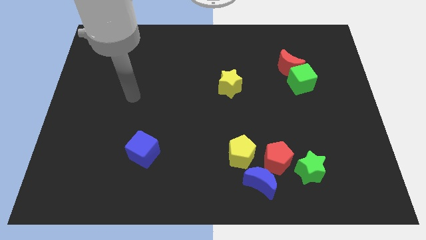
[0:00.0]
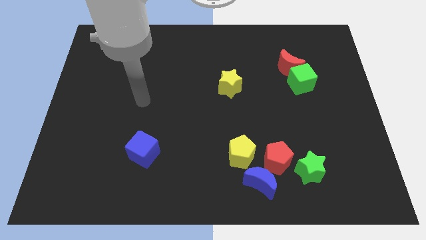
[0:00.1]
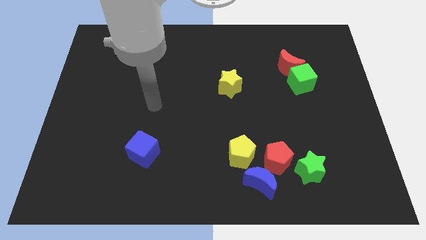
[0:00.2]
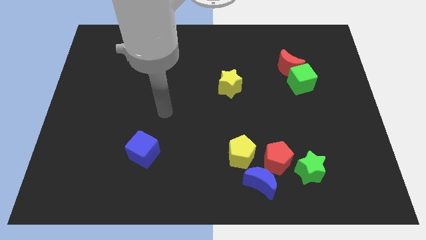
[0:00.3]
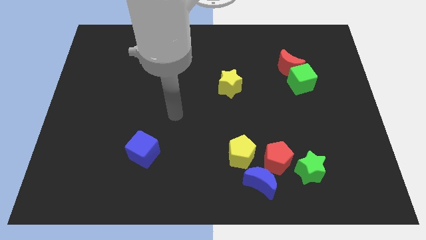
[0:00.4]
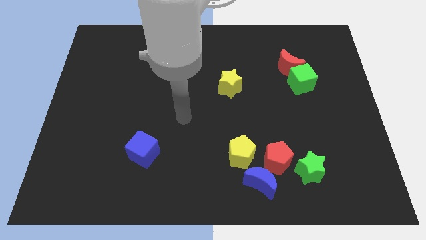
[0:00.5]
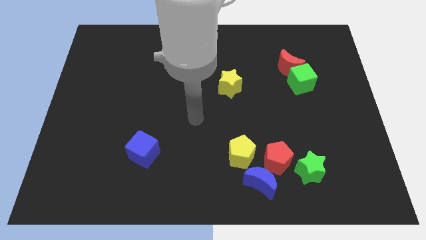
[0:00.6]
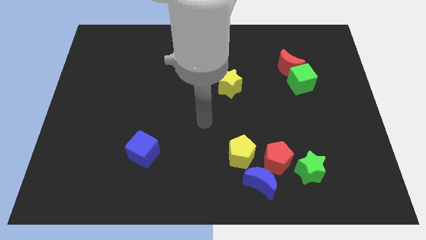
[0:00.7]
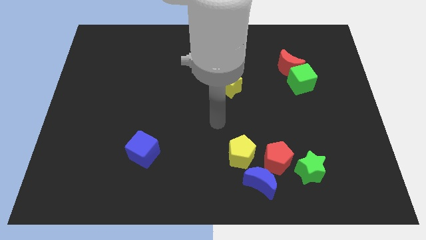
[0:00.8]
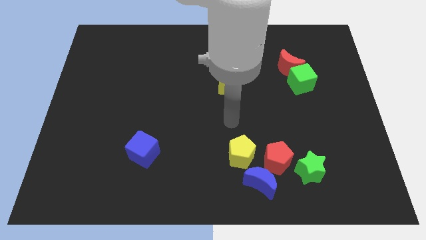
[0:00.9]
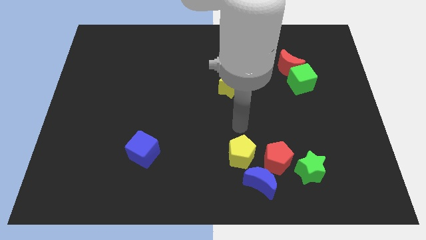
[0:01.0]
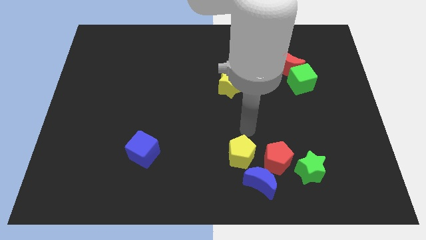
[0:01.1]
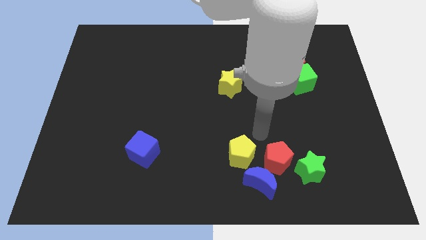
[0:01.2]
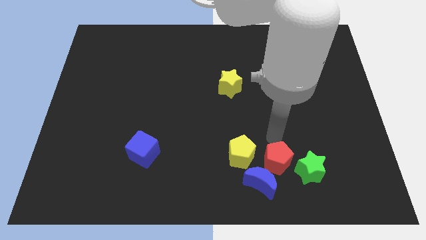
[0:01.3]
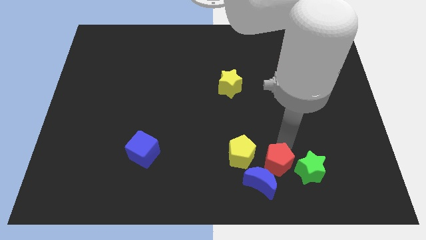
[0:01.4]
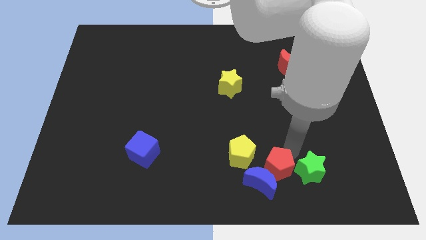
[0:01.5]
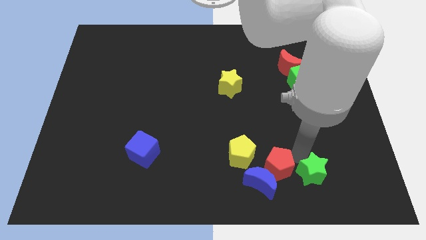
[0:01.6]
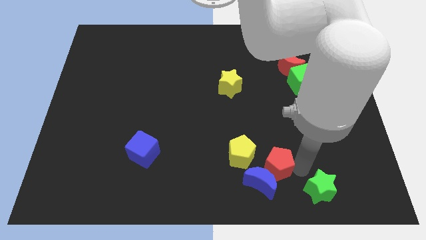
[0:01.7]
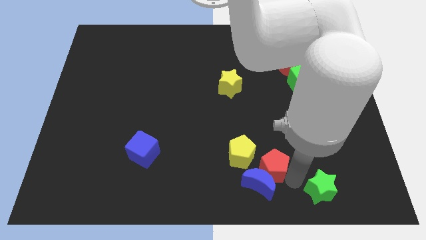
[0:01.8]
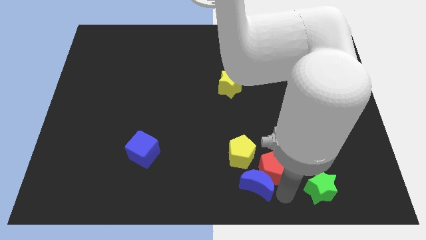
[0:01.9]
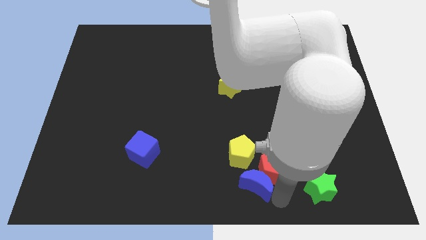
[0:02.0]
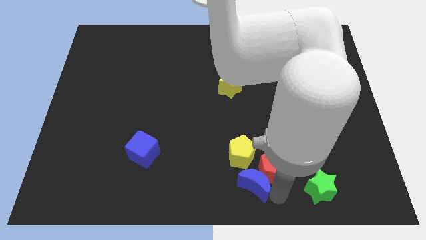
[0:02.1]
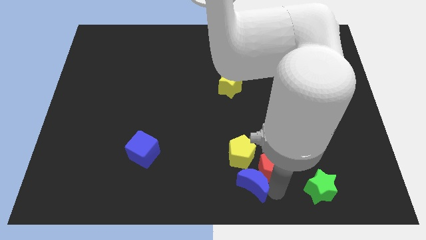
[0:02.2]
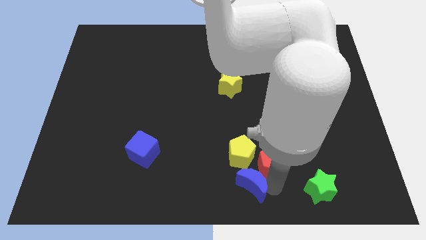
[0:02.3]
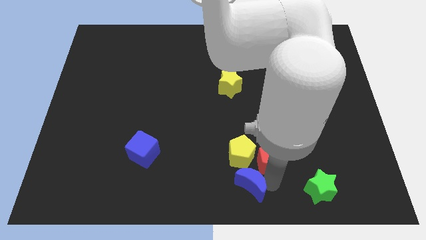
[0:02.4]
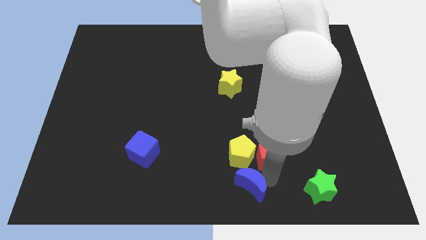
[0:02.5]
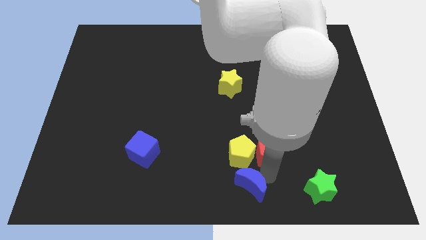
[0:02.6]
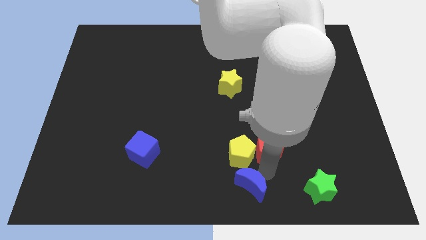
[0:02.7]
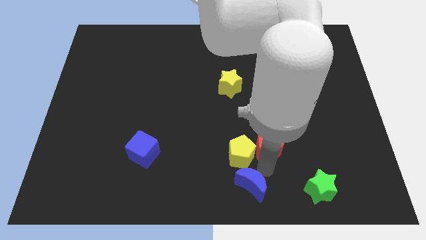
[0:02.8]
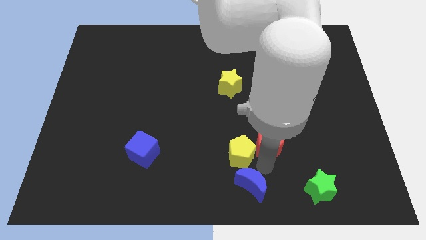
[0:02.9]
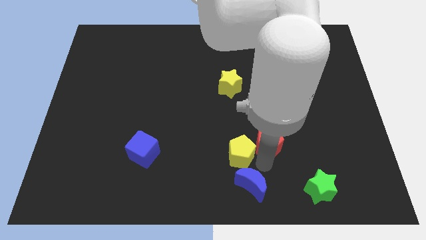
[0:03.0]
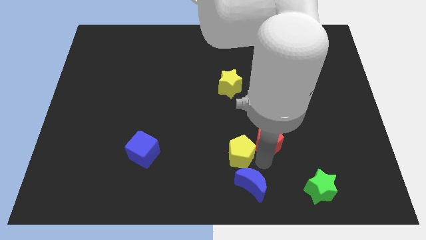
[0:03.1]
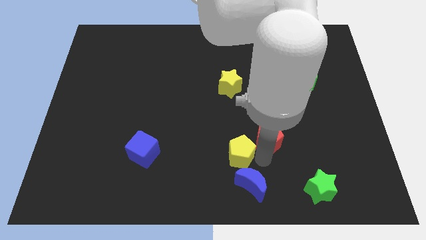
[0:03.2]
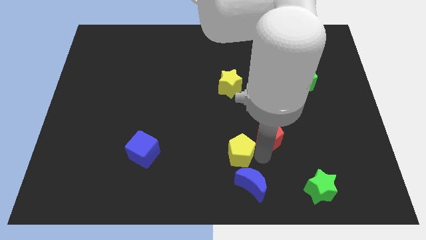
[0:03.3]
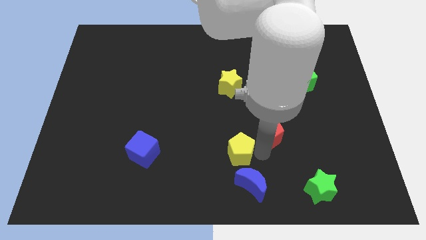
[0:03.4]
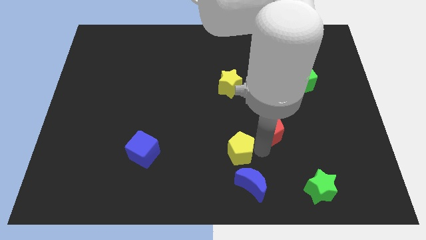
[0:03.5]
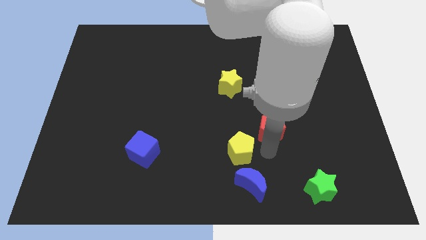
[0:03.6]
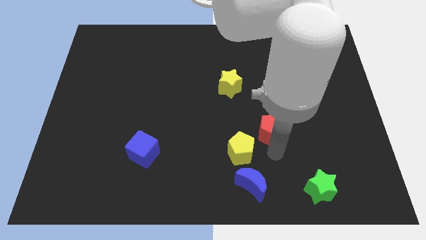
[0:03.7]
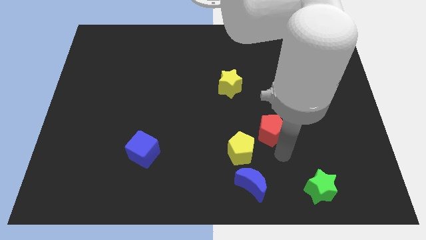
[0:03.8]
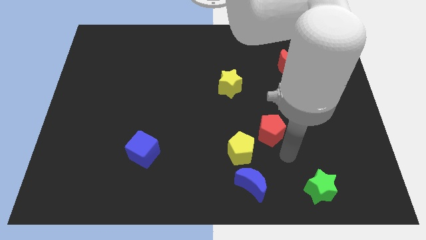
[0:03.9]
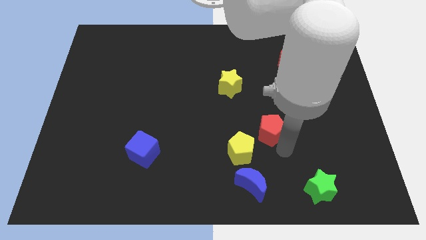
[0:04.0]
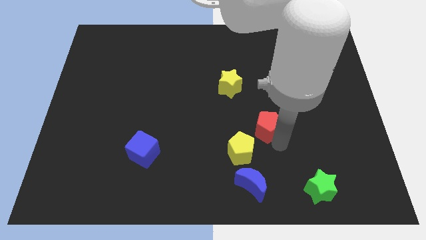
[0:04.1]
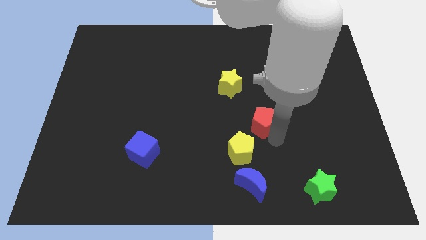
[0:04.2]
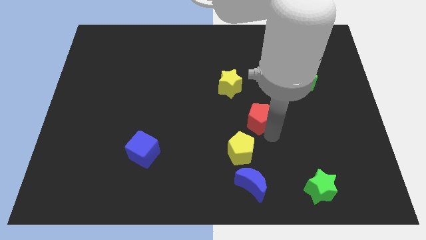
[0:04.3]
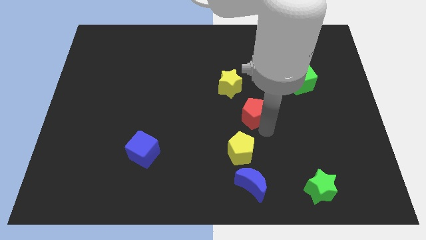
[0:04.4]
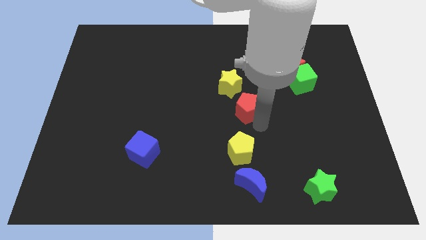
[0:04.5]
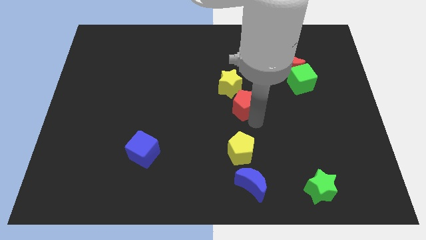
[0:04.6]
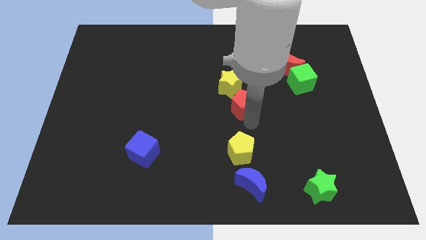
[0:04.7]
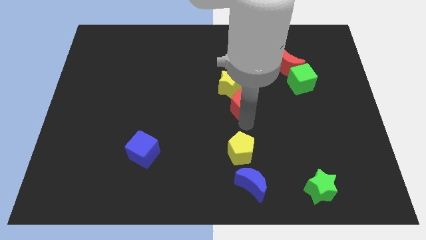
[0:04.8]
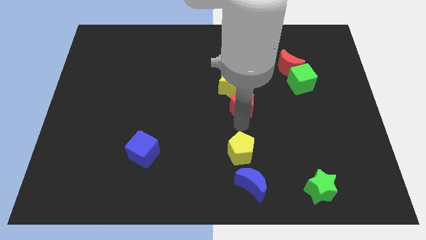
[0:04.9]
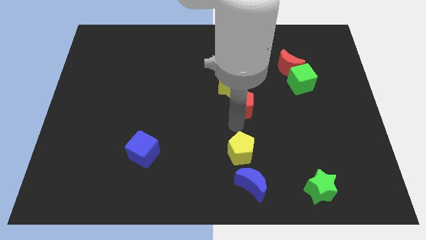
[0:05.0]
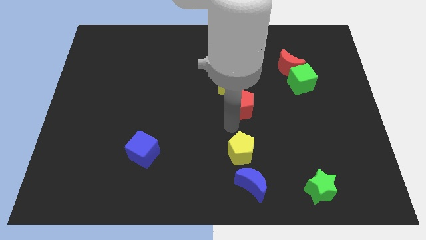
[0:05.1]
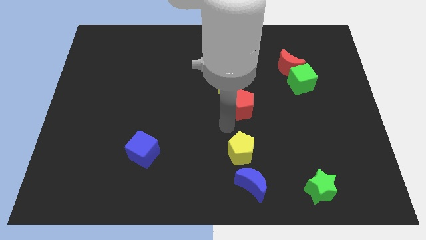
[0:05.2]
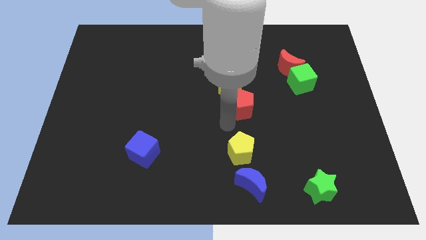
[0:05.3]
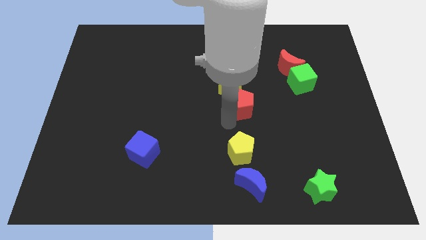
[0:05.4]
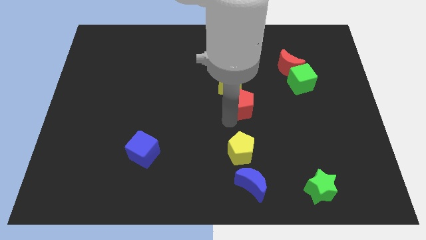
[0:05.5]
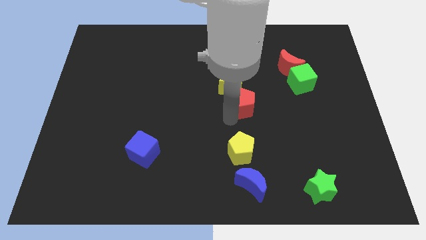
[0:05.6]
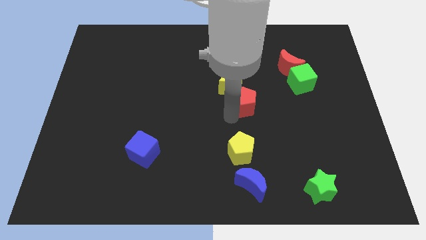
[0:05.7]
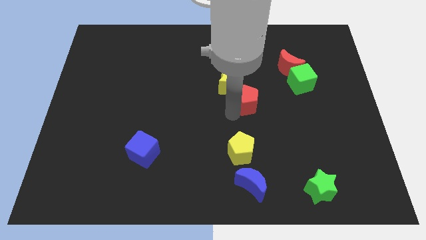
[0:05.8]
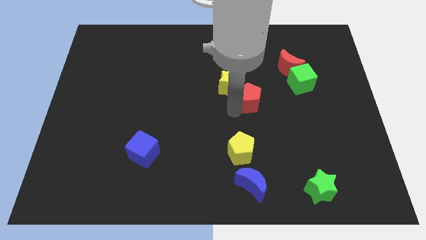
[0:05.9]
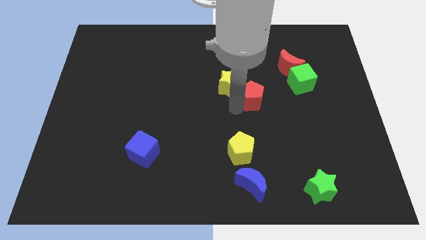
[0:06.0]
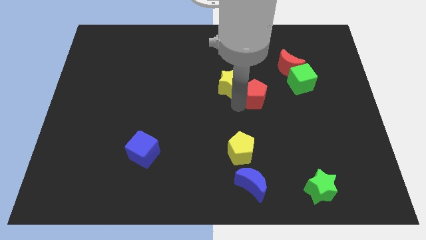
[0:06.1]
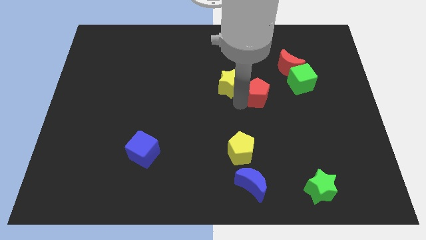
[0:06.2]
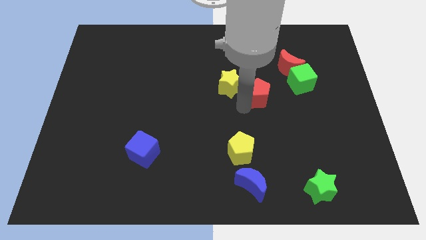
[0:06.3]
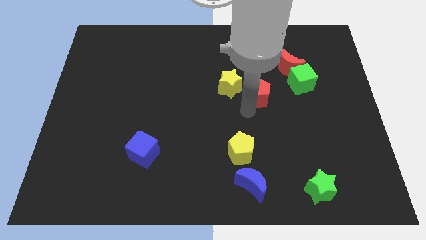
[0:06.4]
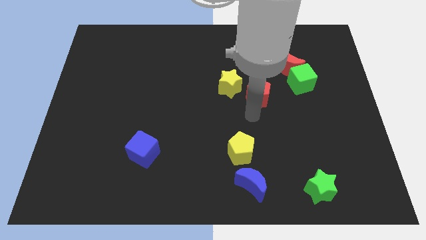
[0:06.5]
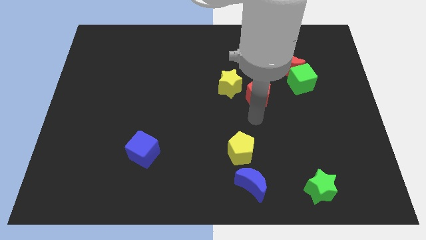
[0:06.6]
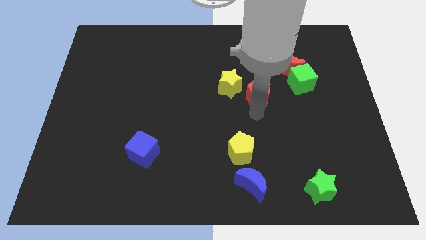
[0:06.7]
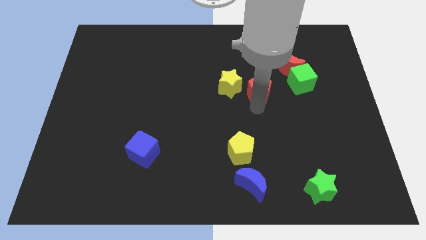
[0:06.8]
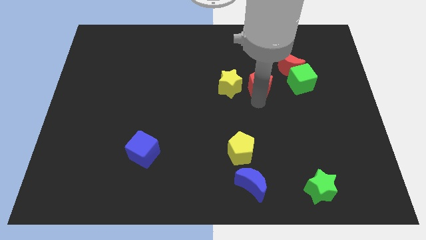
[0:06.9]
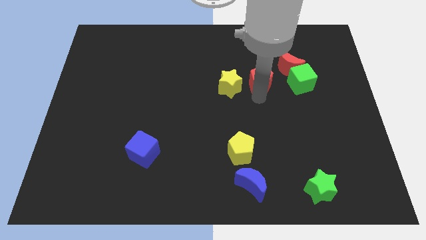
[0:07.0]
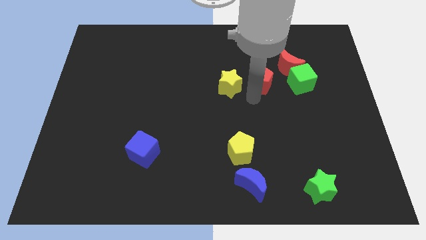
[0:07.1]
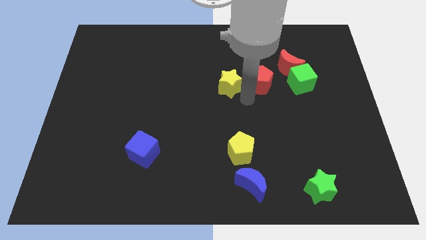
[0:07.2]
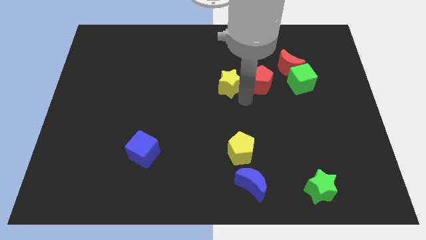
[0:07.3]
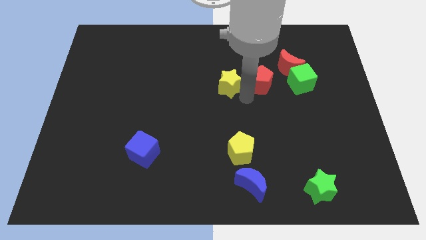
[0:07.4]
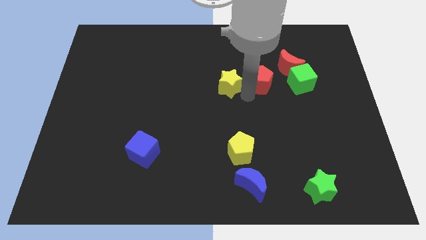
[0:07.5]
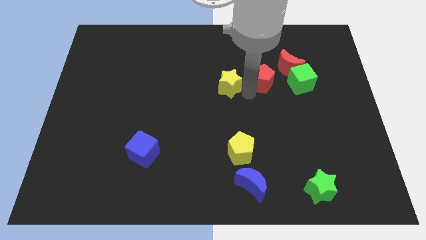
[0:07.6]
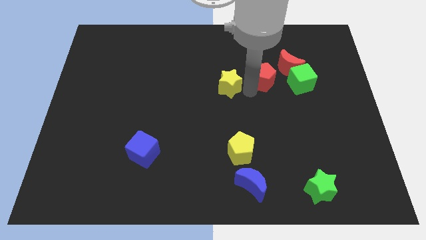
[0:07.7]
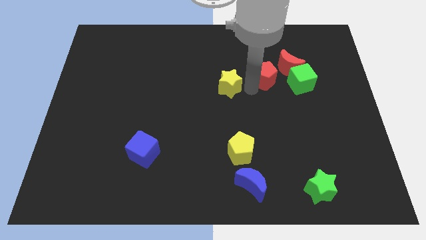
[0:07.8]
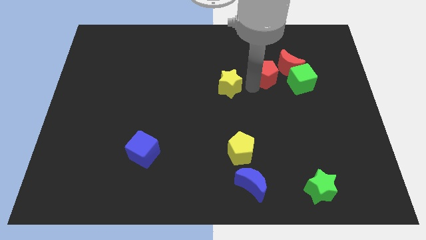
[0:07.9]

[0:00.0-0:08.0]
put the red pentagon to the top left side of the green cube
